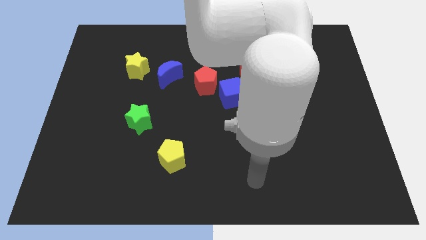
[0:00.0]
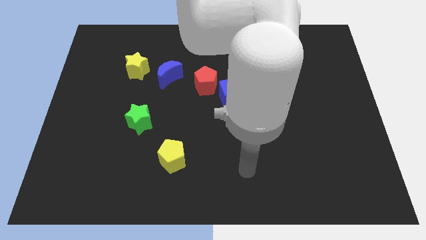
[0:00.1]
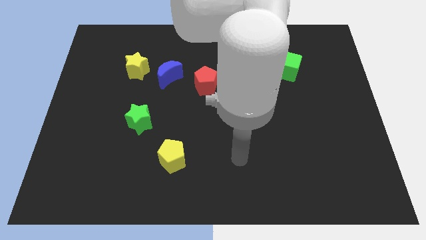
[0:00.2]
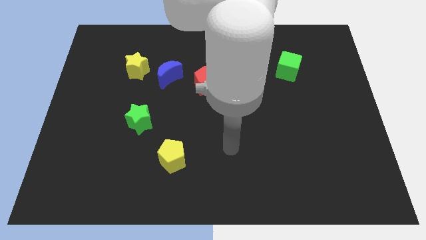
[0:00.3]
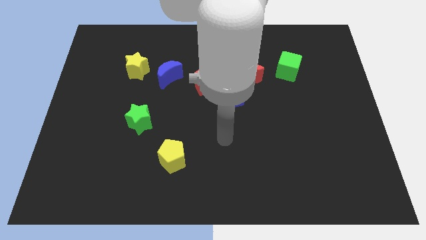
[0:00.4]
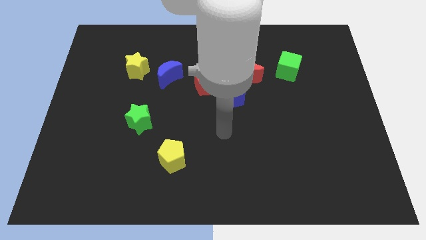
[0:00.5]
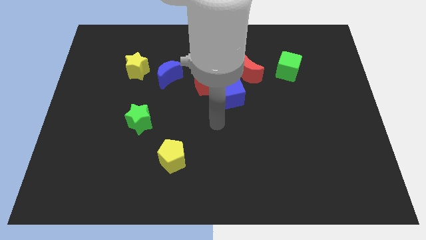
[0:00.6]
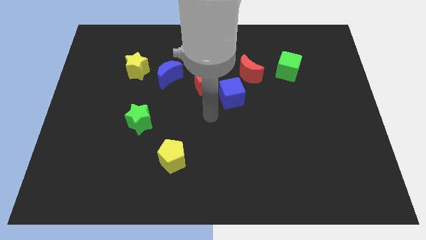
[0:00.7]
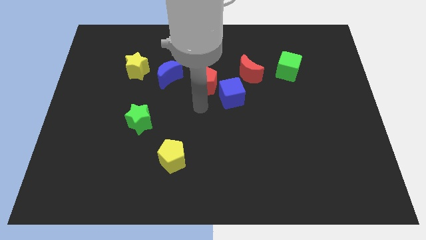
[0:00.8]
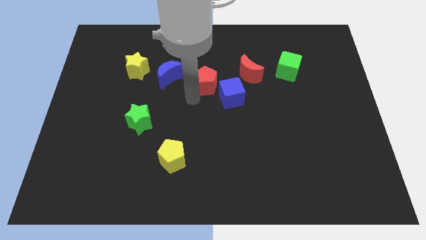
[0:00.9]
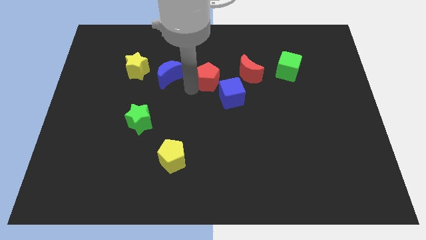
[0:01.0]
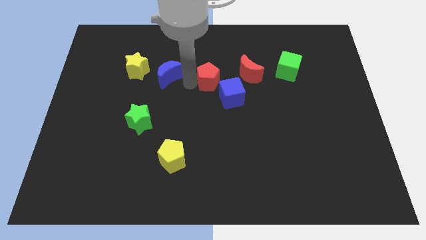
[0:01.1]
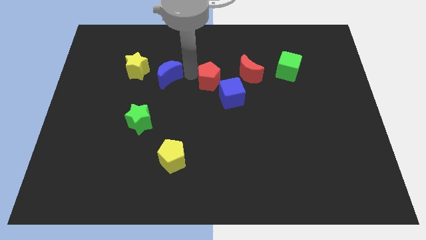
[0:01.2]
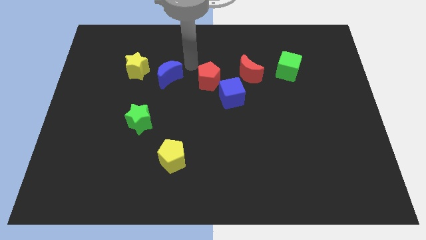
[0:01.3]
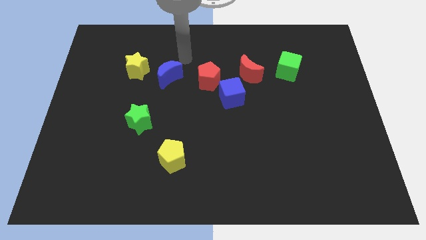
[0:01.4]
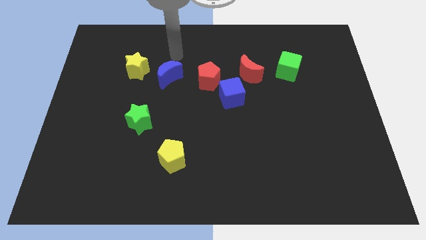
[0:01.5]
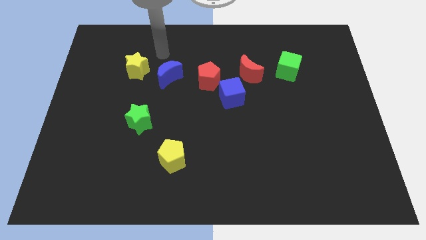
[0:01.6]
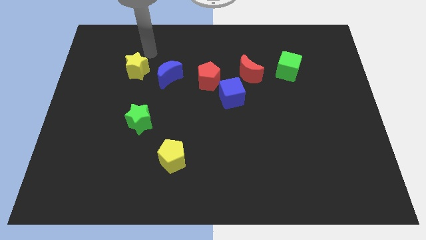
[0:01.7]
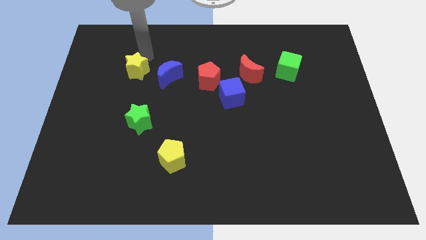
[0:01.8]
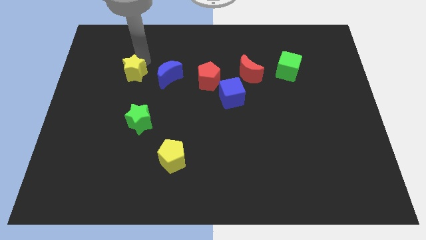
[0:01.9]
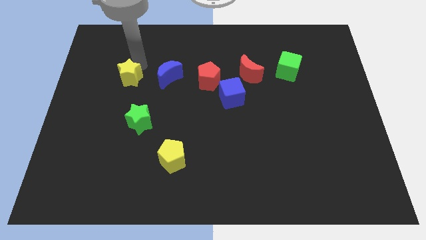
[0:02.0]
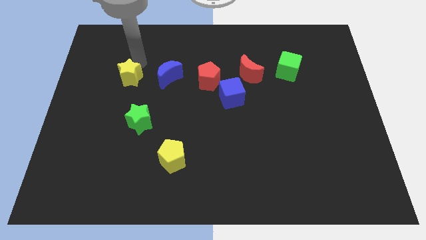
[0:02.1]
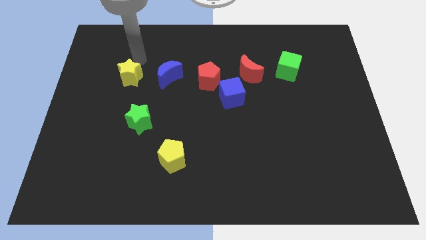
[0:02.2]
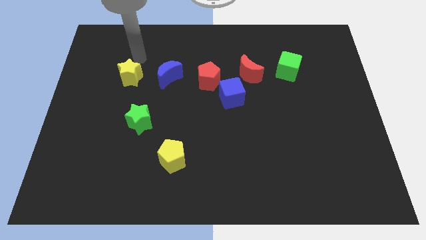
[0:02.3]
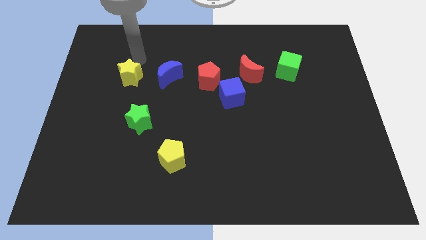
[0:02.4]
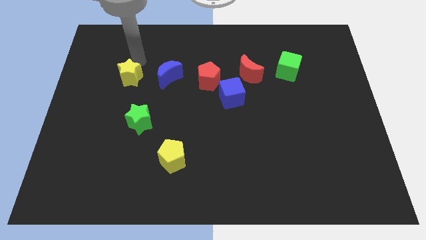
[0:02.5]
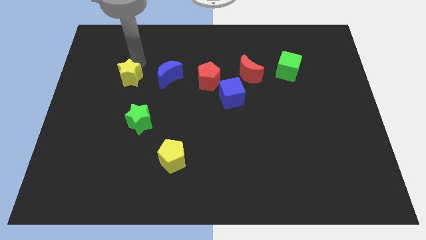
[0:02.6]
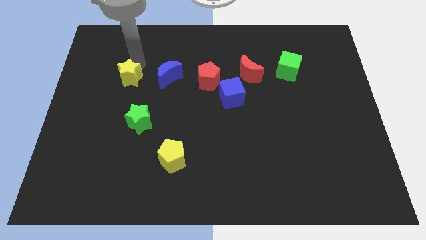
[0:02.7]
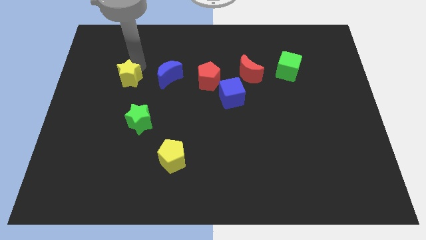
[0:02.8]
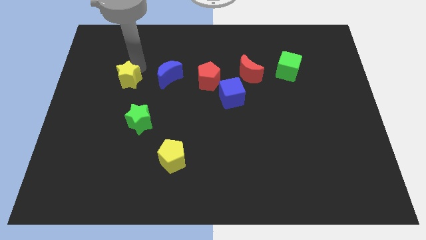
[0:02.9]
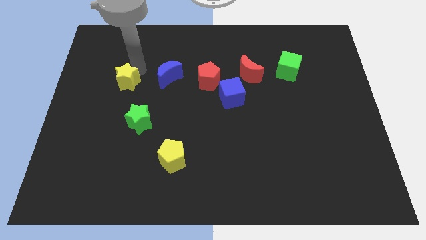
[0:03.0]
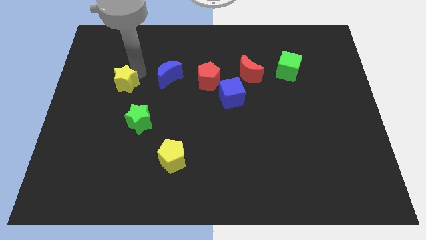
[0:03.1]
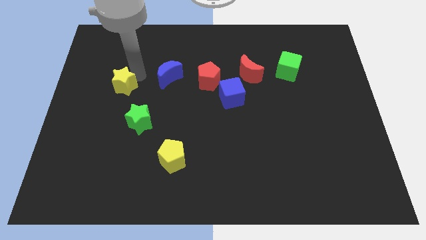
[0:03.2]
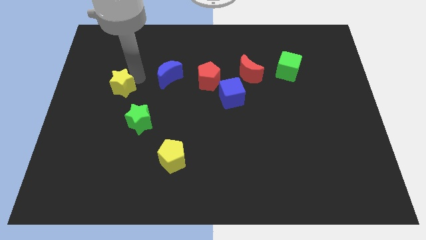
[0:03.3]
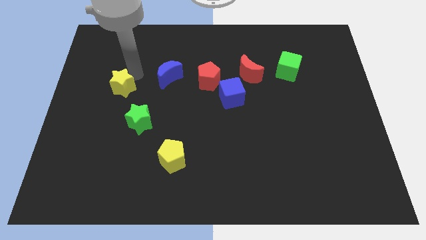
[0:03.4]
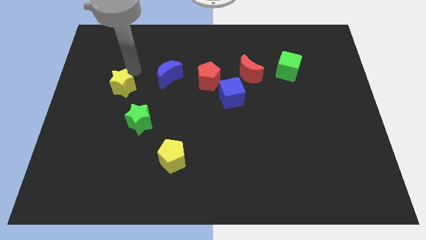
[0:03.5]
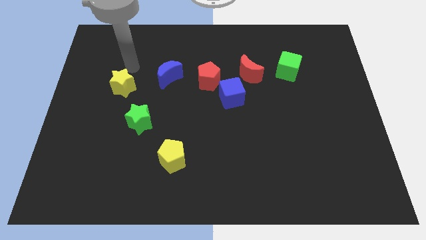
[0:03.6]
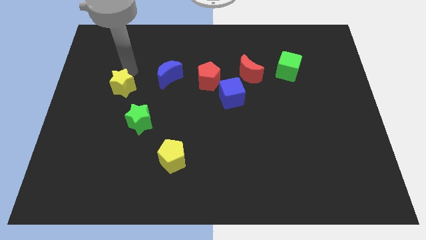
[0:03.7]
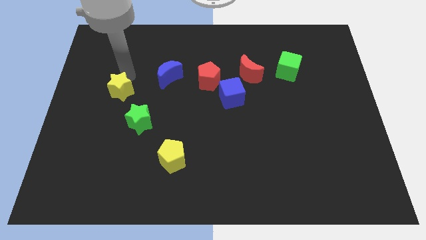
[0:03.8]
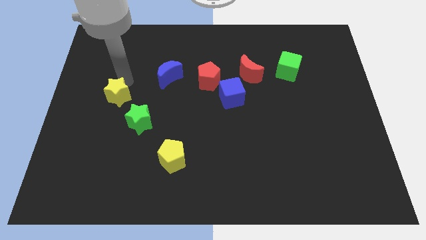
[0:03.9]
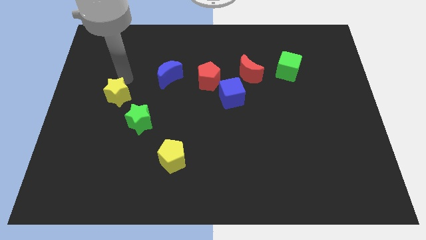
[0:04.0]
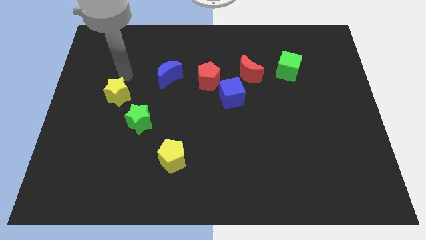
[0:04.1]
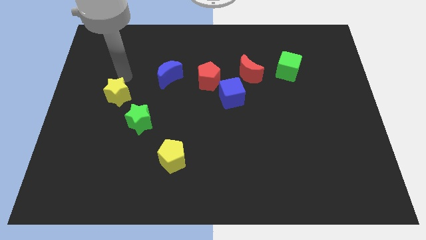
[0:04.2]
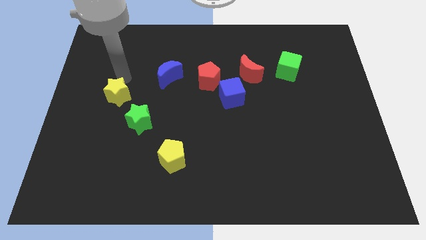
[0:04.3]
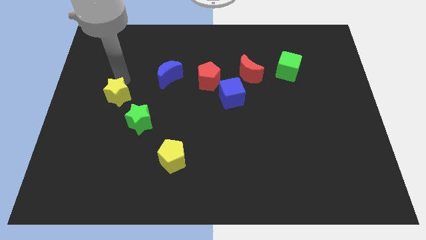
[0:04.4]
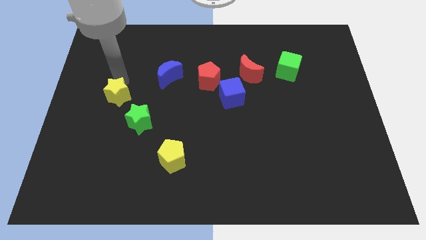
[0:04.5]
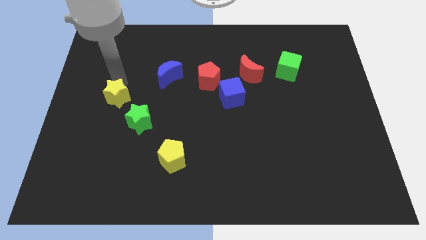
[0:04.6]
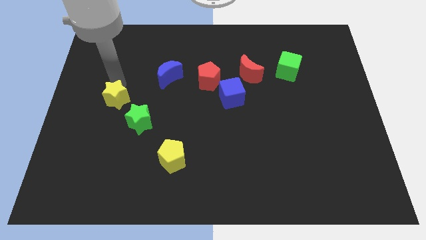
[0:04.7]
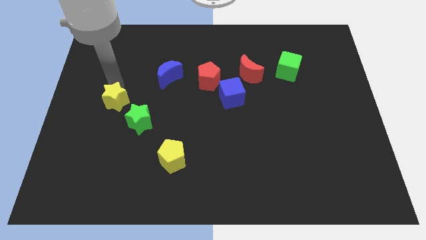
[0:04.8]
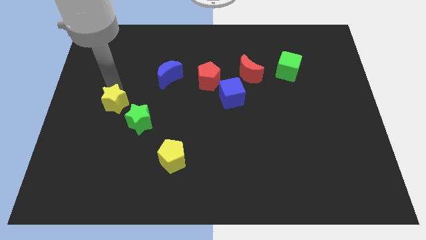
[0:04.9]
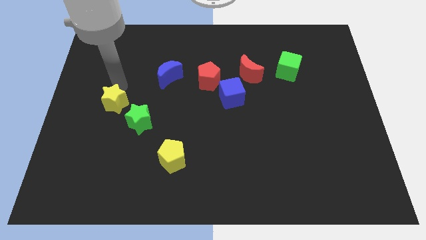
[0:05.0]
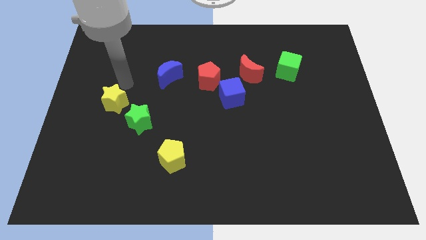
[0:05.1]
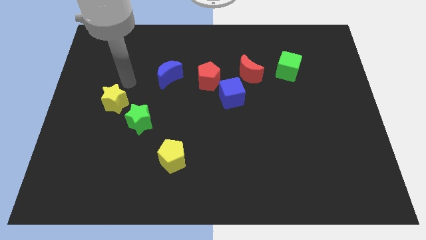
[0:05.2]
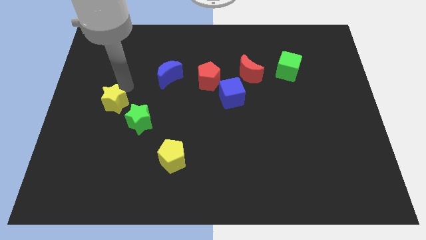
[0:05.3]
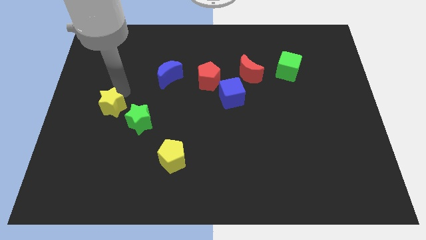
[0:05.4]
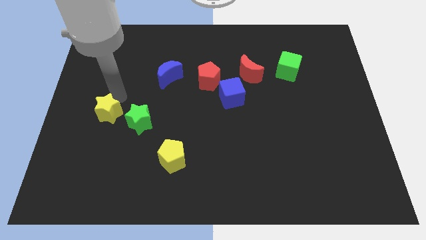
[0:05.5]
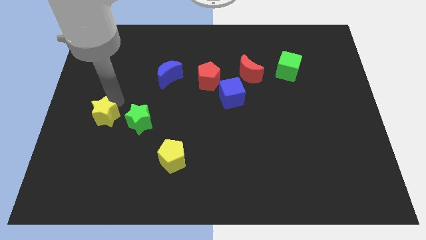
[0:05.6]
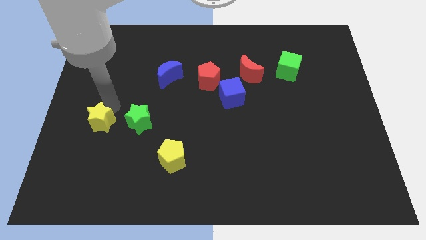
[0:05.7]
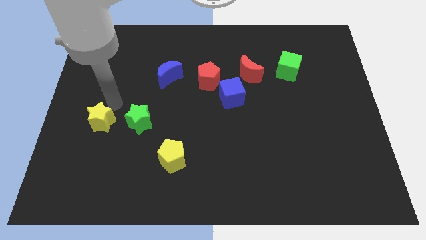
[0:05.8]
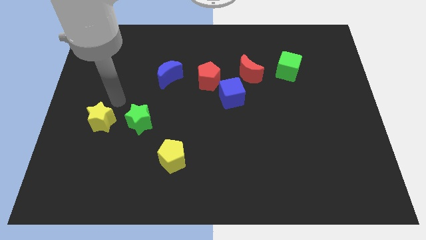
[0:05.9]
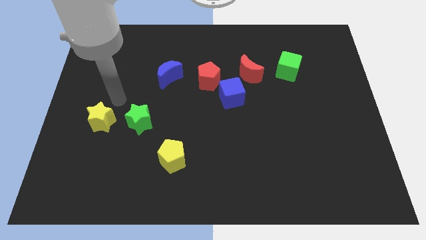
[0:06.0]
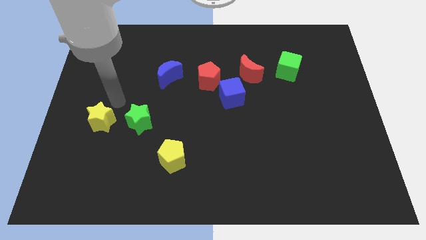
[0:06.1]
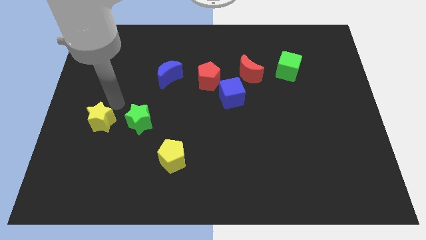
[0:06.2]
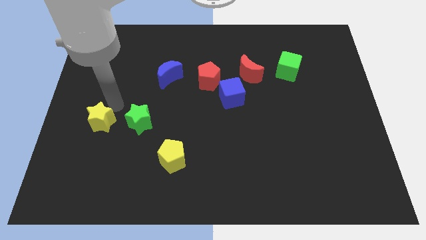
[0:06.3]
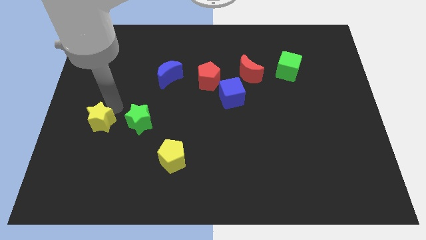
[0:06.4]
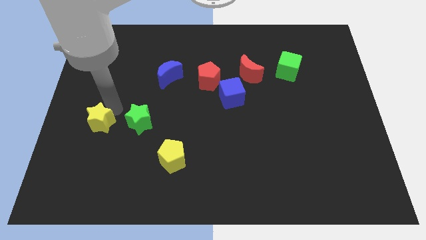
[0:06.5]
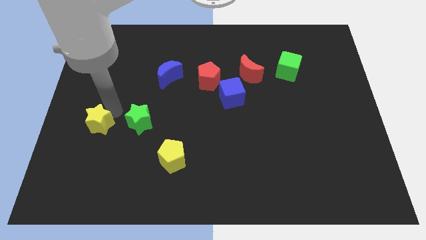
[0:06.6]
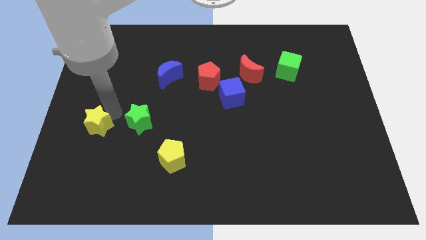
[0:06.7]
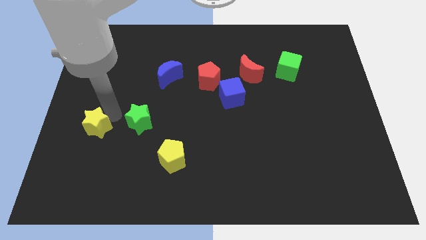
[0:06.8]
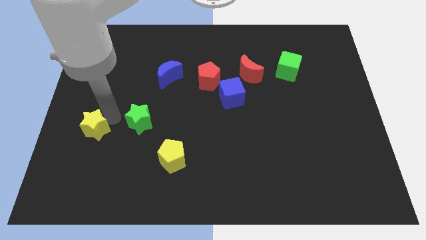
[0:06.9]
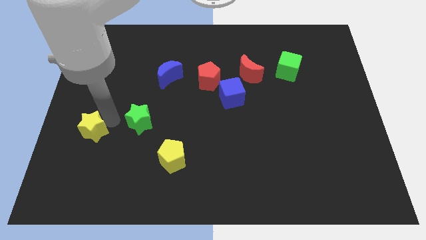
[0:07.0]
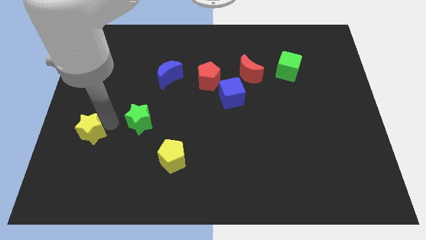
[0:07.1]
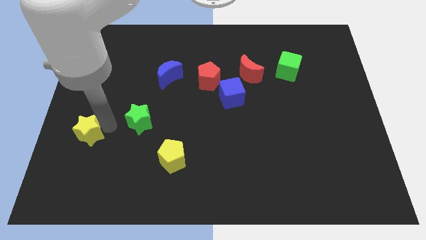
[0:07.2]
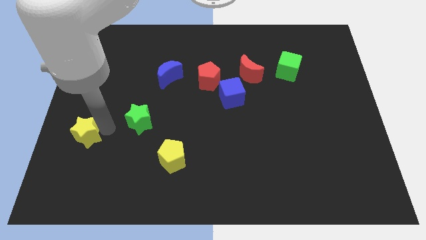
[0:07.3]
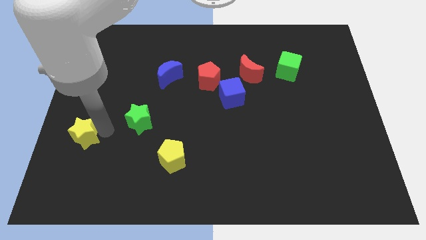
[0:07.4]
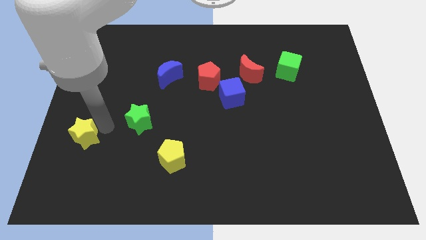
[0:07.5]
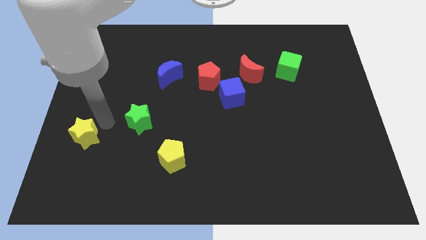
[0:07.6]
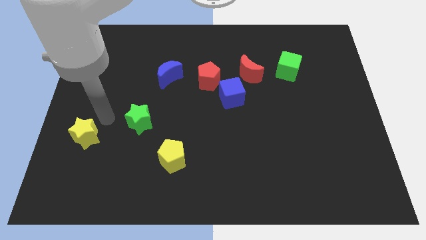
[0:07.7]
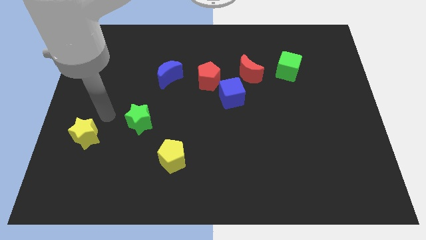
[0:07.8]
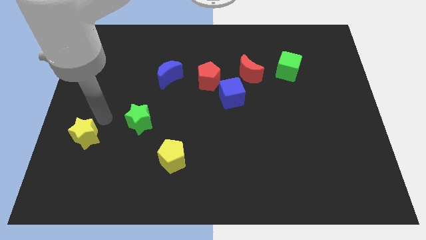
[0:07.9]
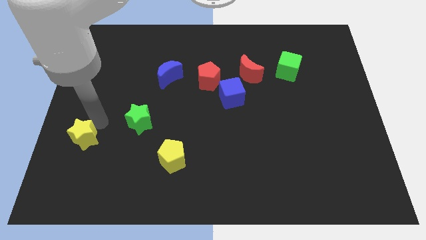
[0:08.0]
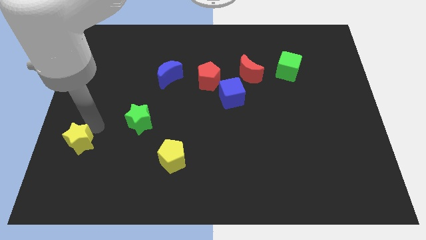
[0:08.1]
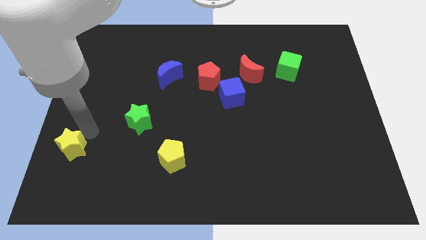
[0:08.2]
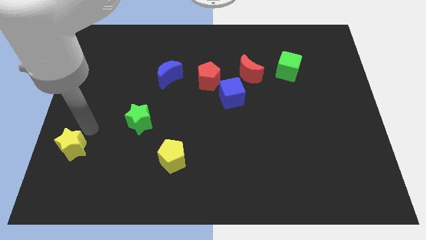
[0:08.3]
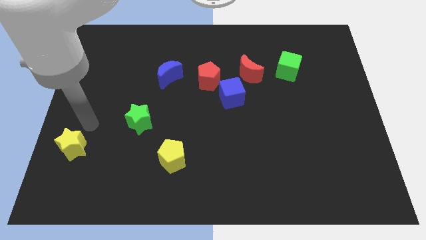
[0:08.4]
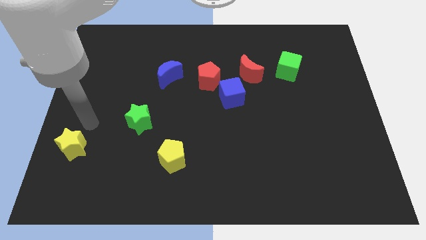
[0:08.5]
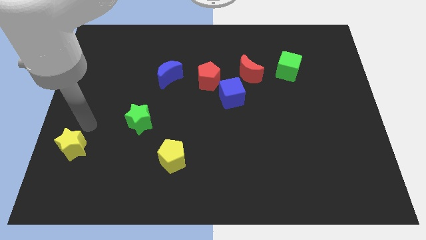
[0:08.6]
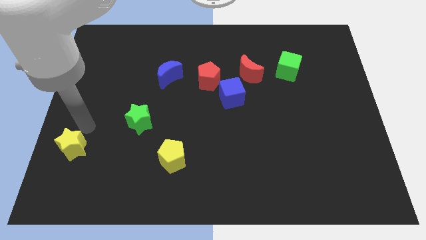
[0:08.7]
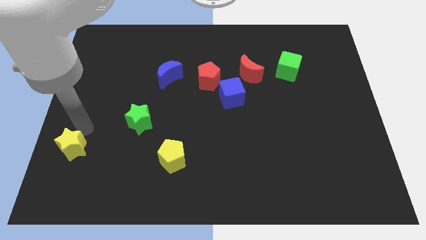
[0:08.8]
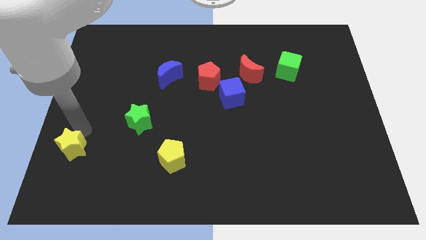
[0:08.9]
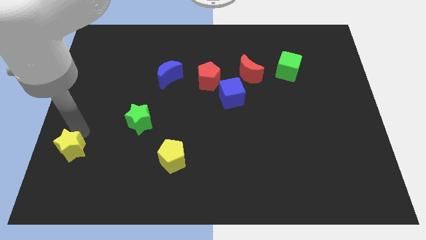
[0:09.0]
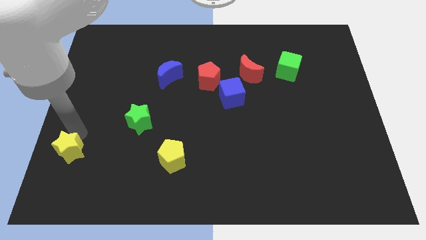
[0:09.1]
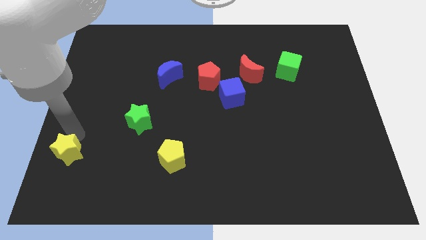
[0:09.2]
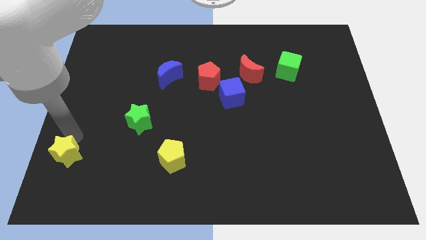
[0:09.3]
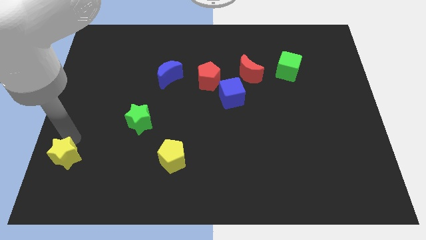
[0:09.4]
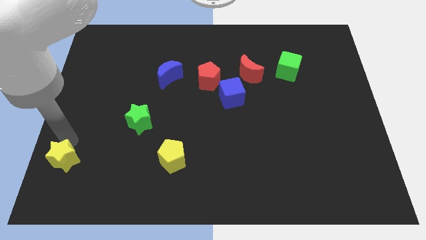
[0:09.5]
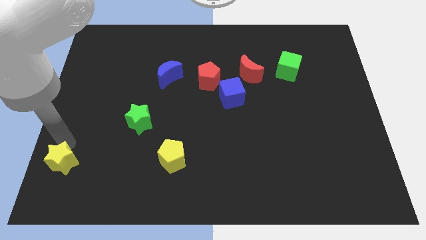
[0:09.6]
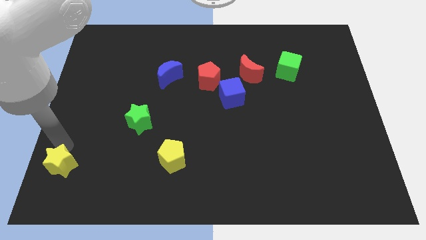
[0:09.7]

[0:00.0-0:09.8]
put the yellow star to the lower left corner
